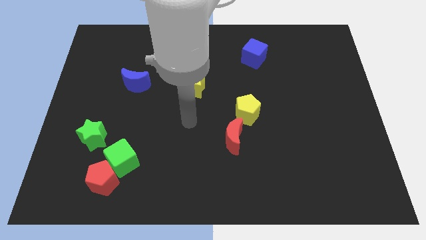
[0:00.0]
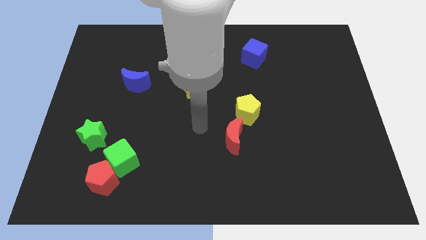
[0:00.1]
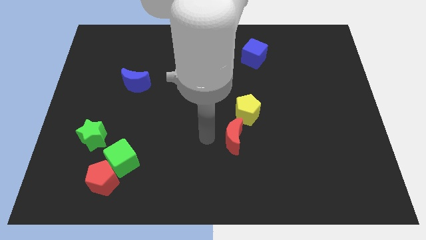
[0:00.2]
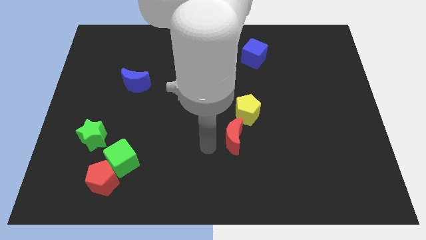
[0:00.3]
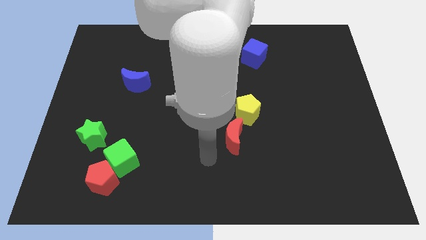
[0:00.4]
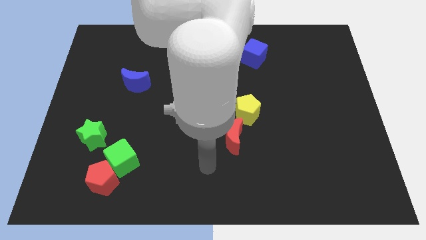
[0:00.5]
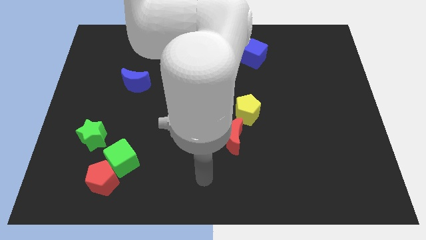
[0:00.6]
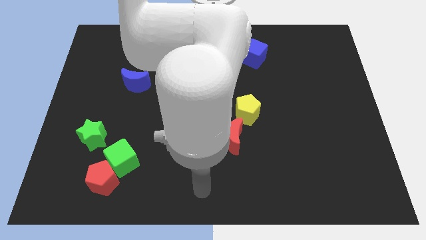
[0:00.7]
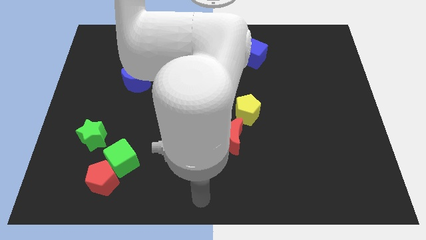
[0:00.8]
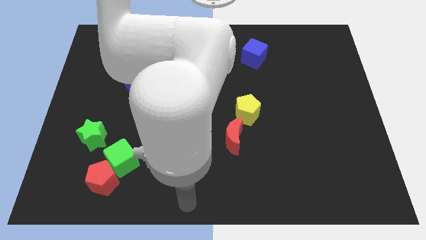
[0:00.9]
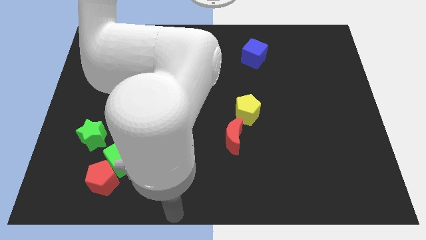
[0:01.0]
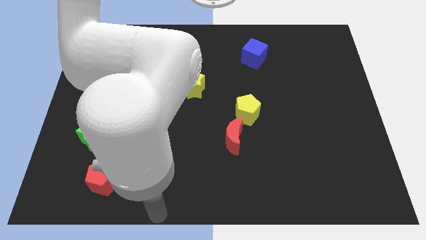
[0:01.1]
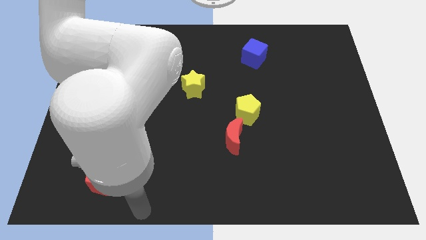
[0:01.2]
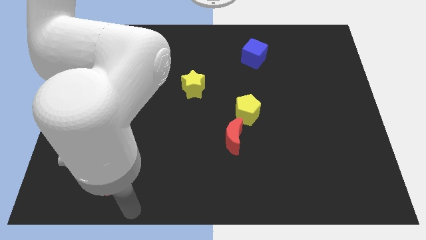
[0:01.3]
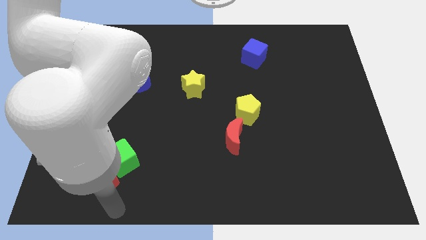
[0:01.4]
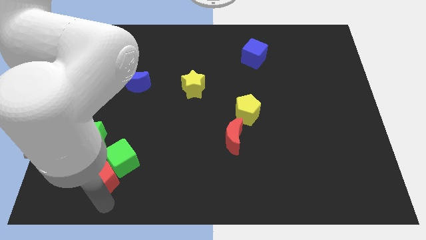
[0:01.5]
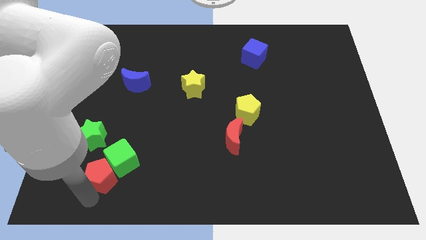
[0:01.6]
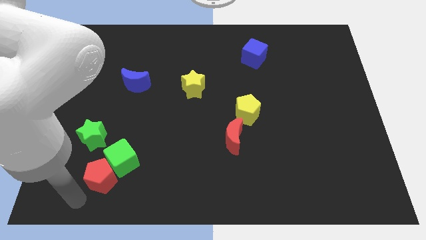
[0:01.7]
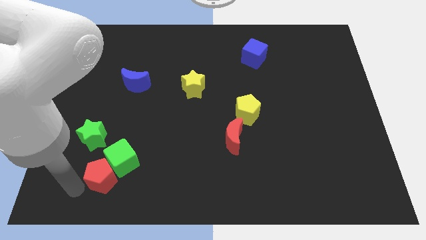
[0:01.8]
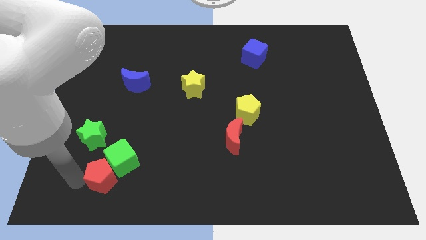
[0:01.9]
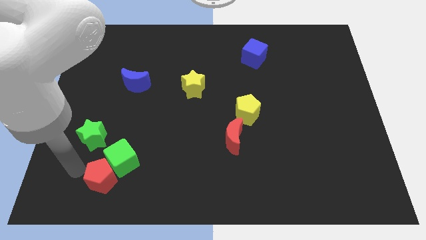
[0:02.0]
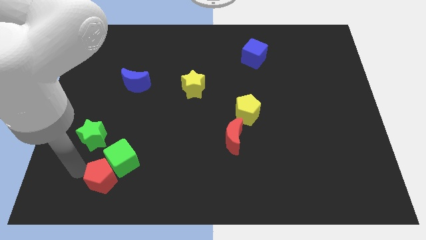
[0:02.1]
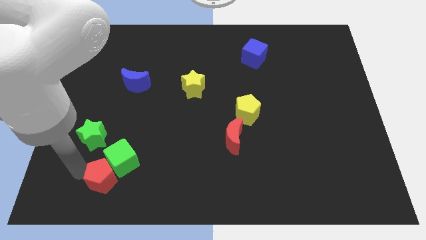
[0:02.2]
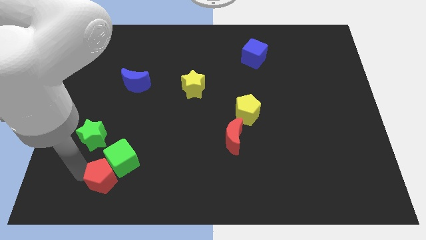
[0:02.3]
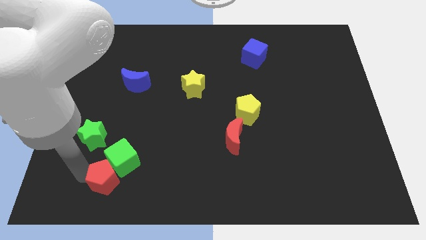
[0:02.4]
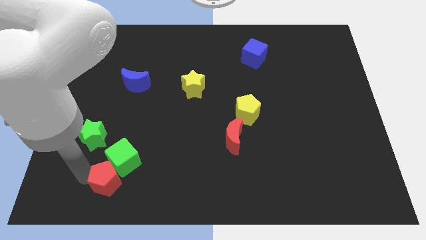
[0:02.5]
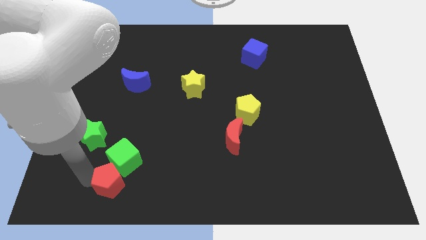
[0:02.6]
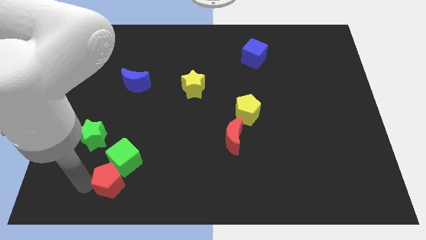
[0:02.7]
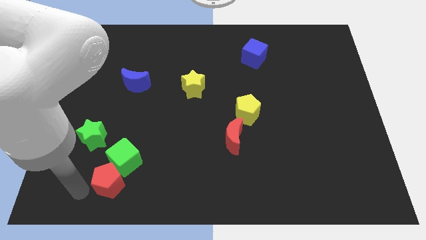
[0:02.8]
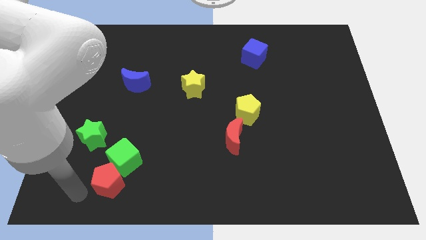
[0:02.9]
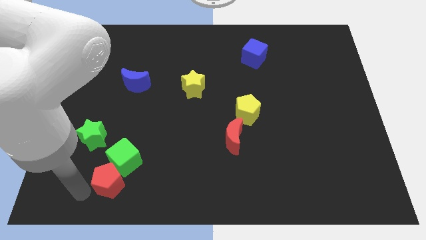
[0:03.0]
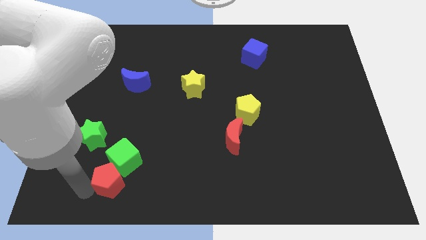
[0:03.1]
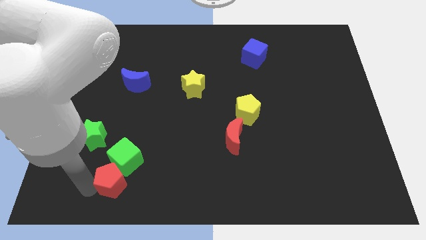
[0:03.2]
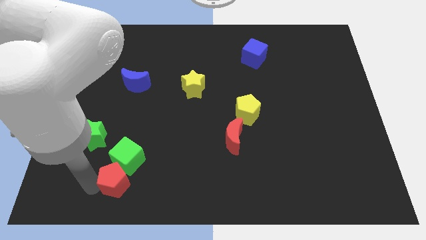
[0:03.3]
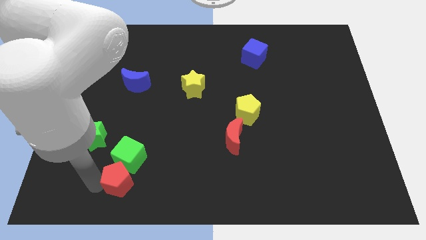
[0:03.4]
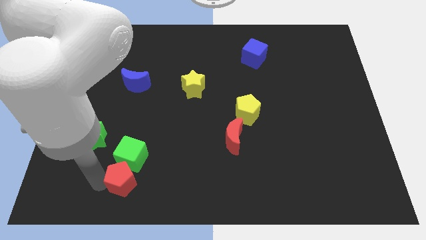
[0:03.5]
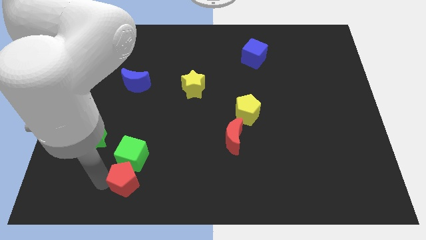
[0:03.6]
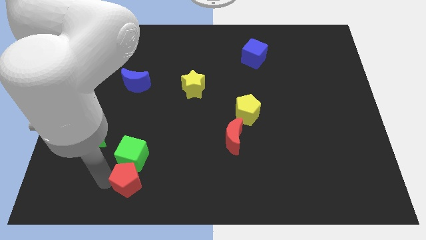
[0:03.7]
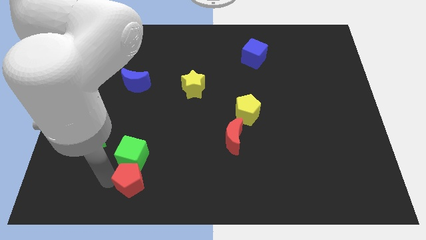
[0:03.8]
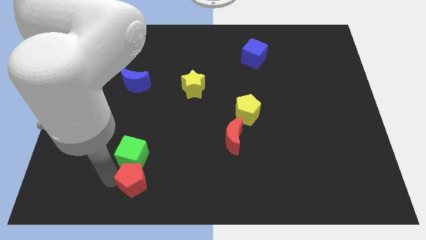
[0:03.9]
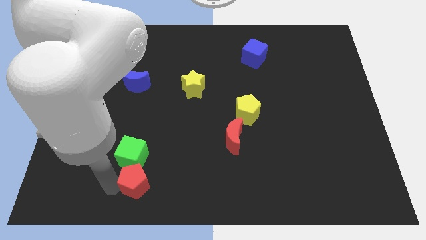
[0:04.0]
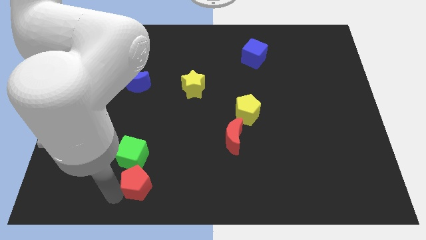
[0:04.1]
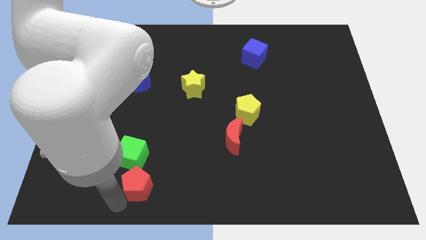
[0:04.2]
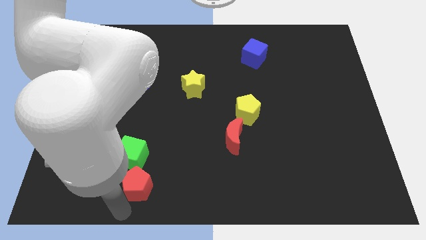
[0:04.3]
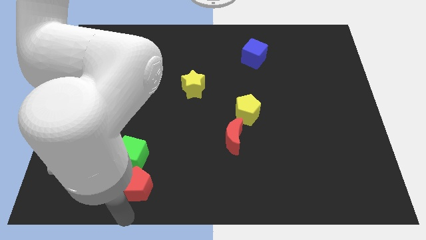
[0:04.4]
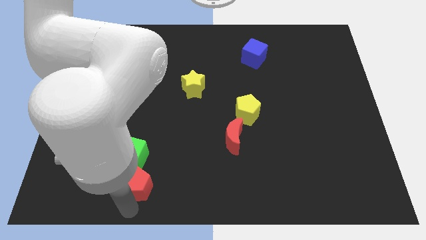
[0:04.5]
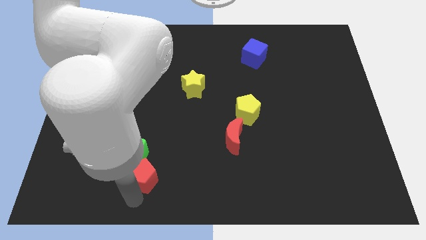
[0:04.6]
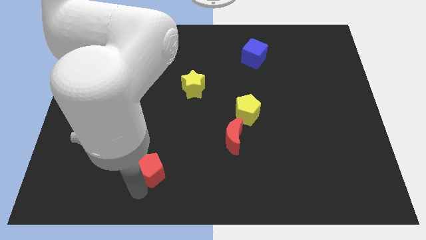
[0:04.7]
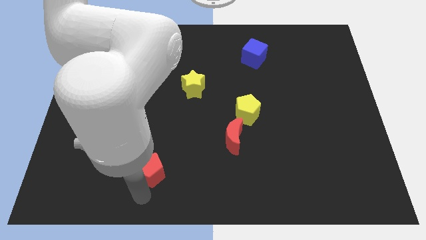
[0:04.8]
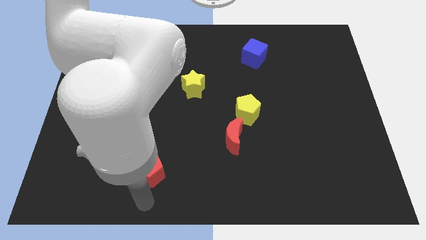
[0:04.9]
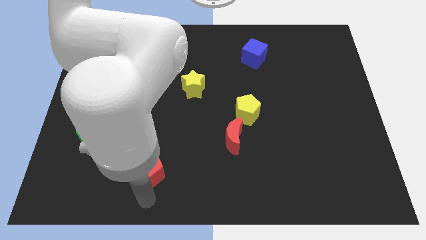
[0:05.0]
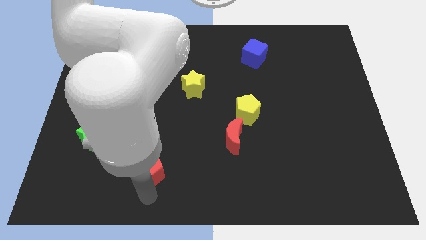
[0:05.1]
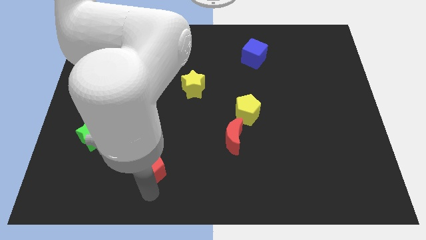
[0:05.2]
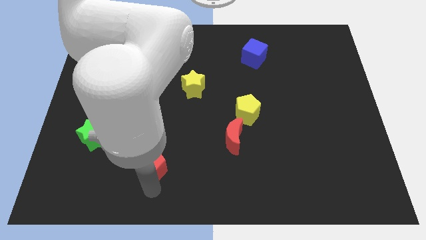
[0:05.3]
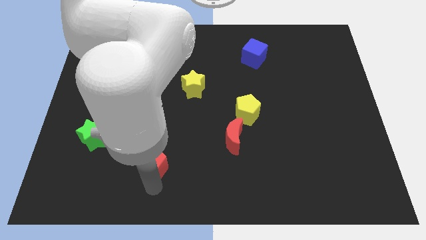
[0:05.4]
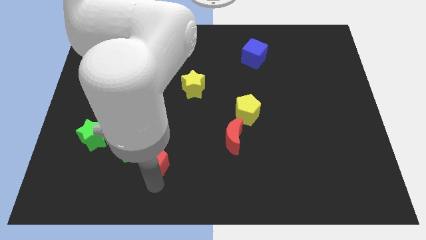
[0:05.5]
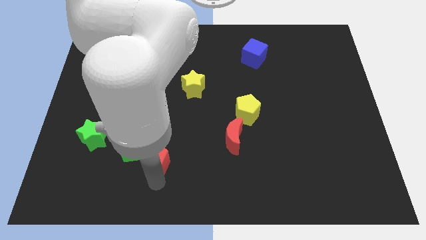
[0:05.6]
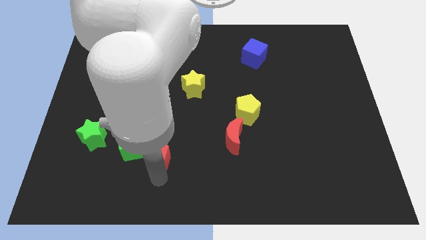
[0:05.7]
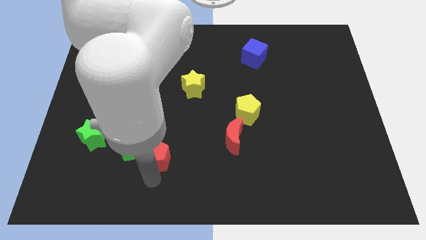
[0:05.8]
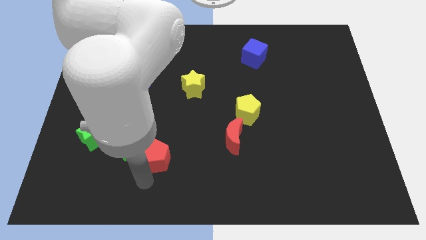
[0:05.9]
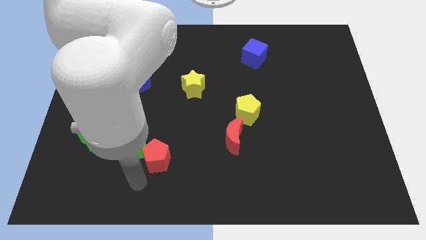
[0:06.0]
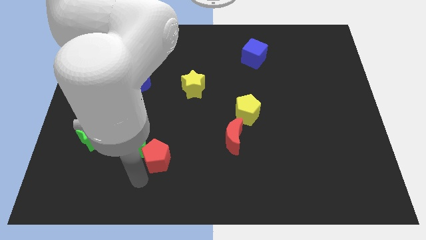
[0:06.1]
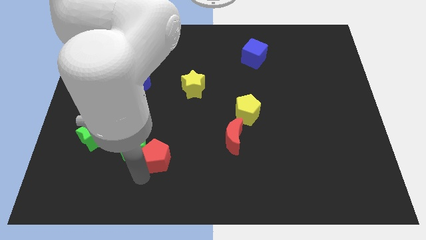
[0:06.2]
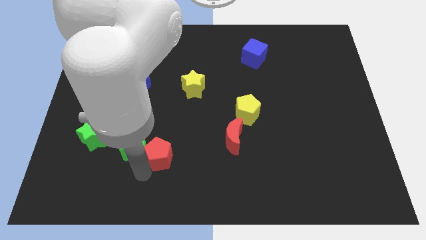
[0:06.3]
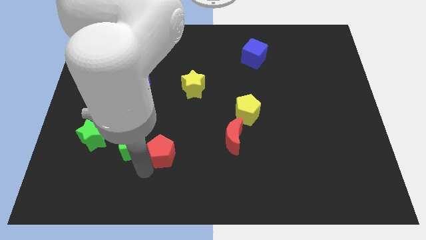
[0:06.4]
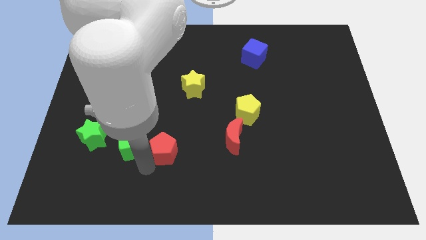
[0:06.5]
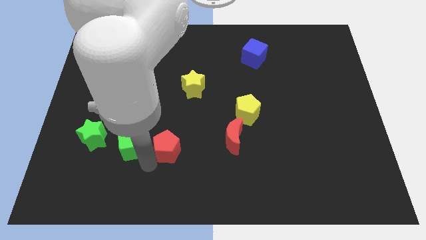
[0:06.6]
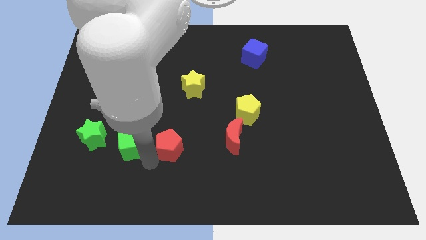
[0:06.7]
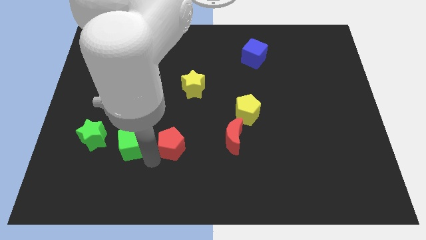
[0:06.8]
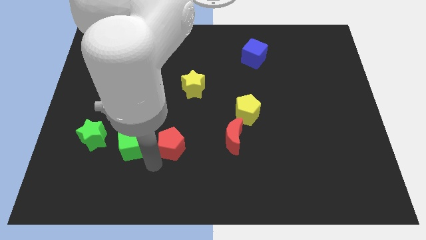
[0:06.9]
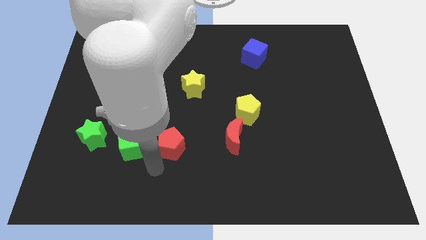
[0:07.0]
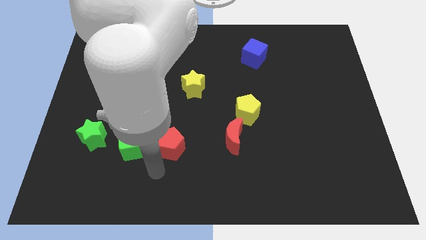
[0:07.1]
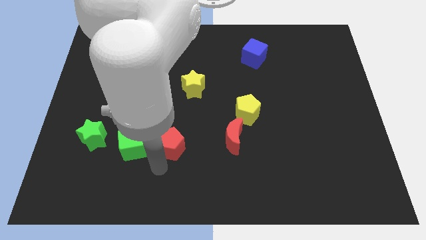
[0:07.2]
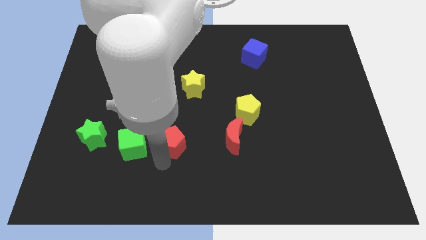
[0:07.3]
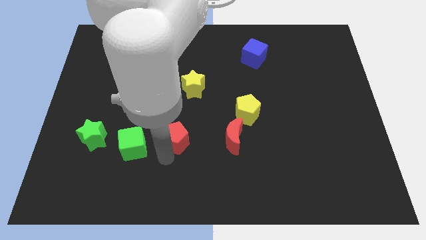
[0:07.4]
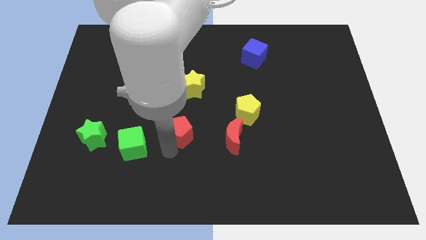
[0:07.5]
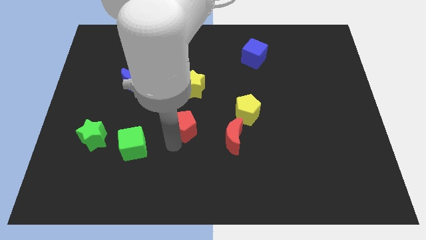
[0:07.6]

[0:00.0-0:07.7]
slide the red pentagon upwards and right diagonally
